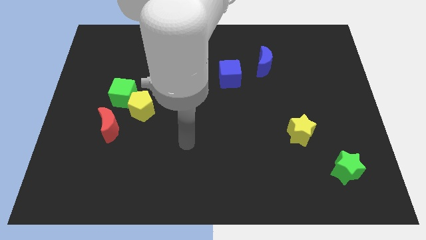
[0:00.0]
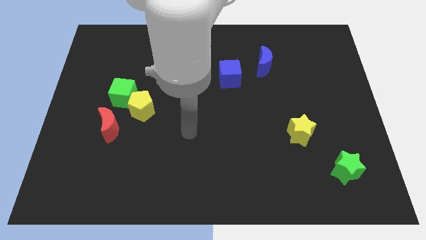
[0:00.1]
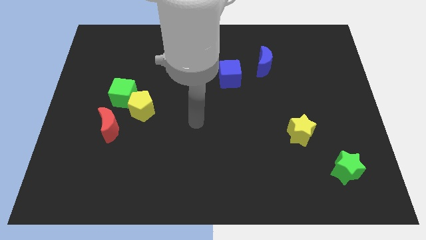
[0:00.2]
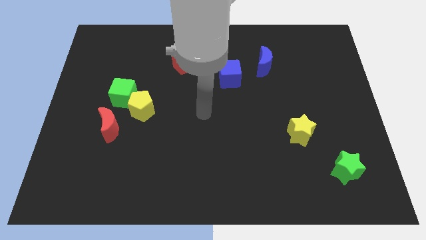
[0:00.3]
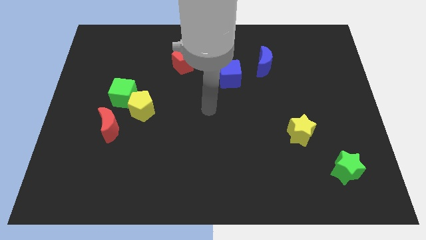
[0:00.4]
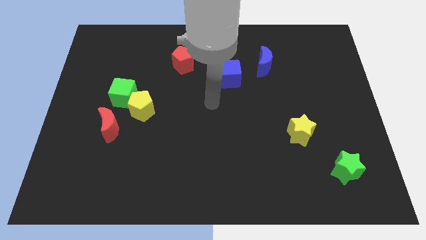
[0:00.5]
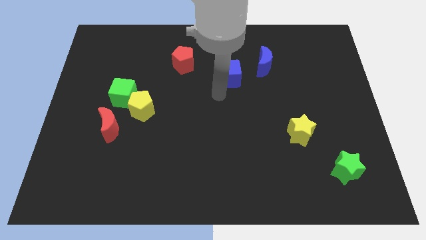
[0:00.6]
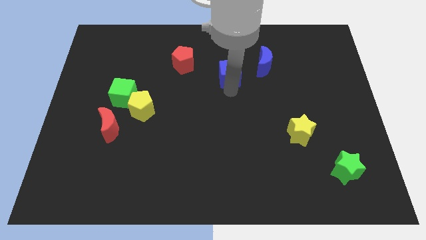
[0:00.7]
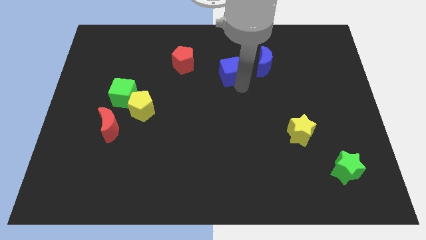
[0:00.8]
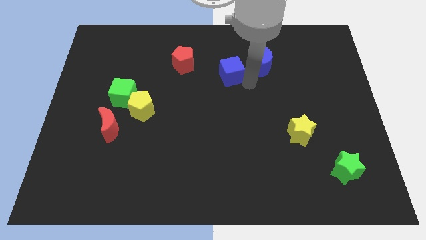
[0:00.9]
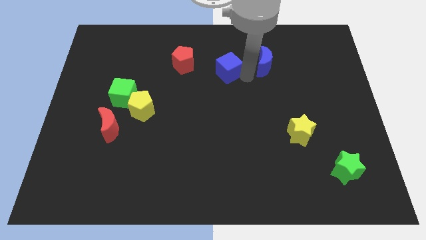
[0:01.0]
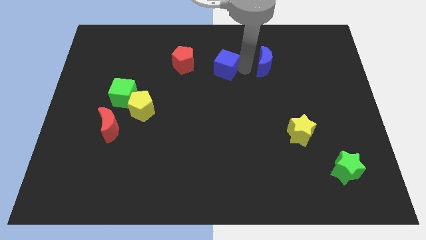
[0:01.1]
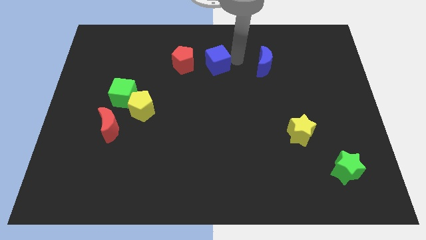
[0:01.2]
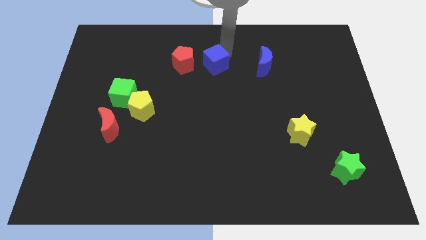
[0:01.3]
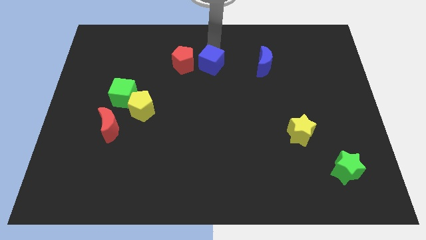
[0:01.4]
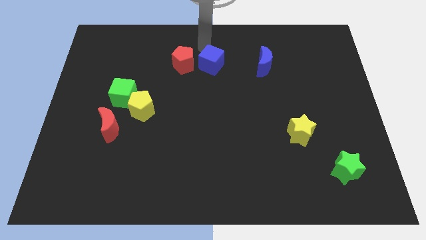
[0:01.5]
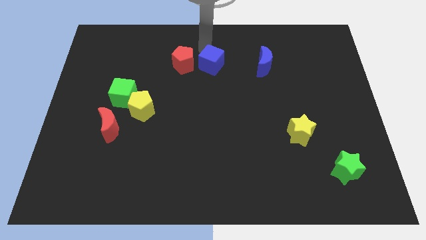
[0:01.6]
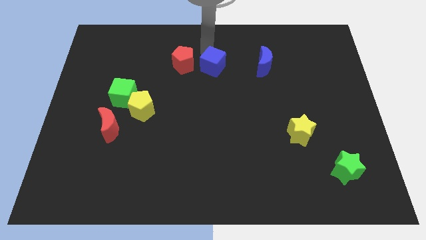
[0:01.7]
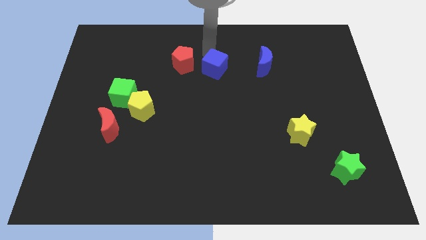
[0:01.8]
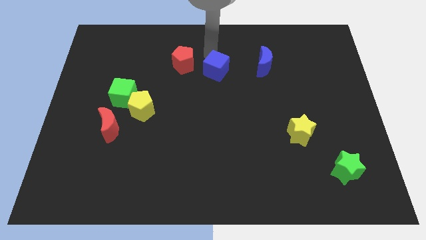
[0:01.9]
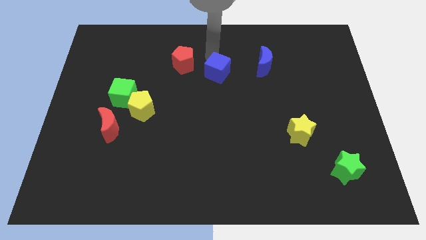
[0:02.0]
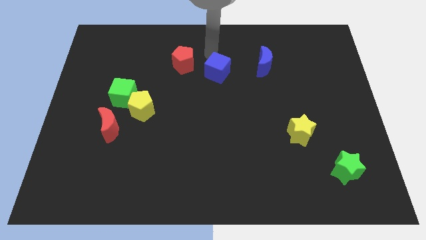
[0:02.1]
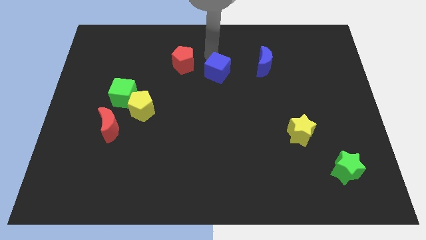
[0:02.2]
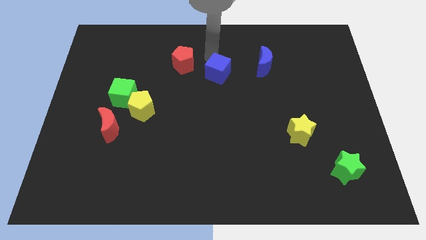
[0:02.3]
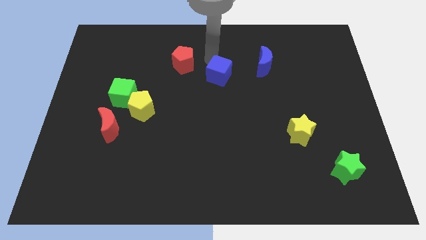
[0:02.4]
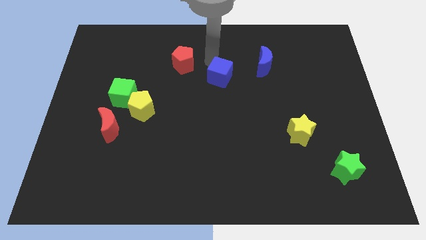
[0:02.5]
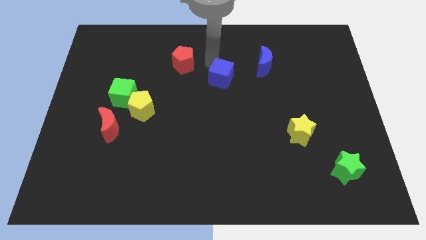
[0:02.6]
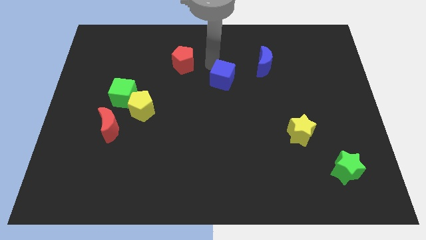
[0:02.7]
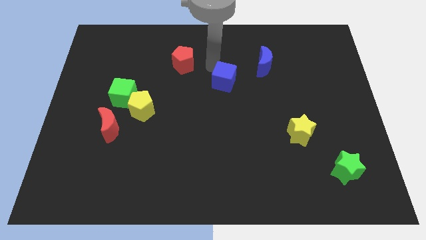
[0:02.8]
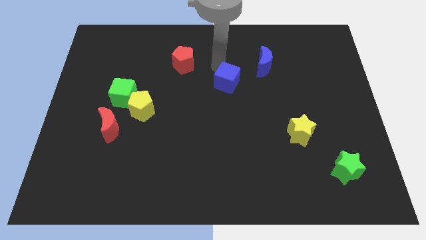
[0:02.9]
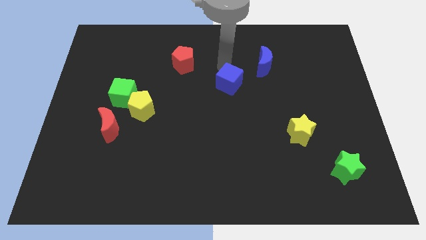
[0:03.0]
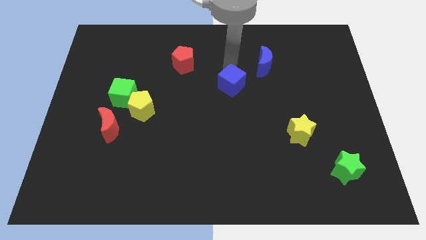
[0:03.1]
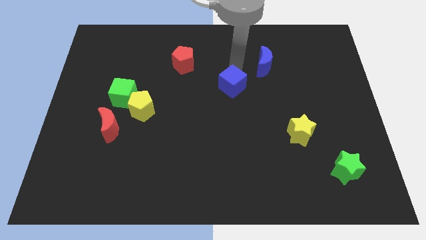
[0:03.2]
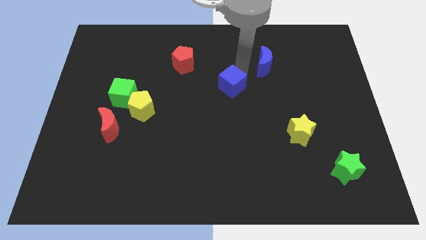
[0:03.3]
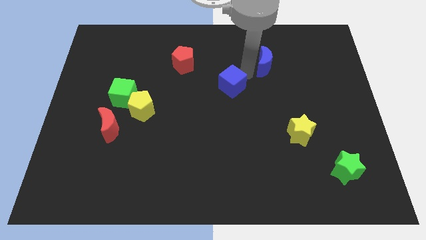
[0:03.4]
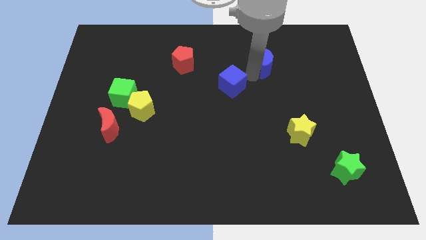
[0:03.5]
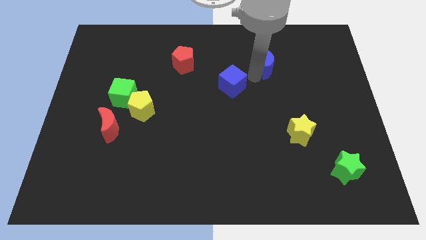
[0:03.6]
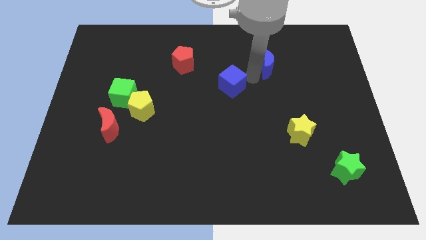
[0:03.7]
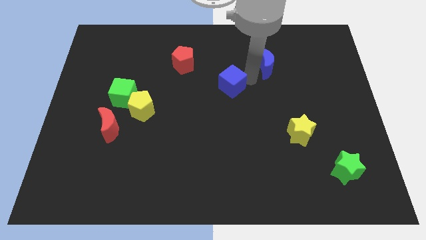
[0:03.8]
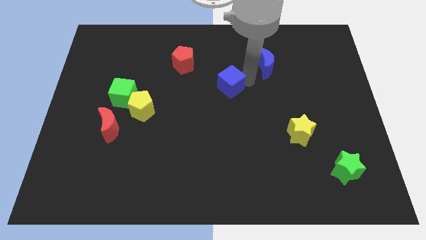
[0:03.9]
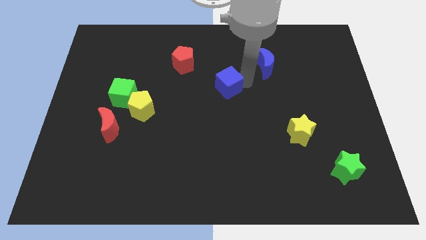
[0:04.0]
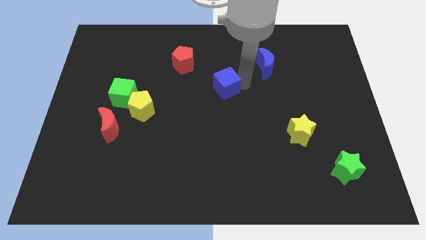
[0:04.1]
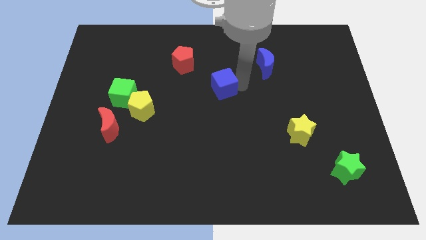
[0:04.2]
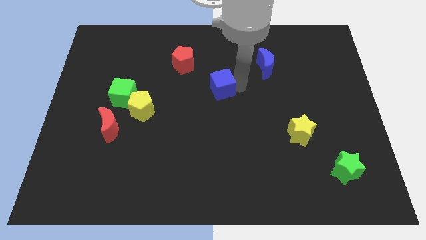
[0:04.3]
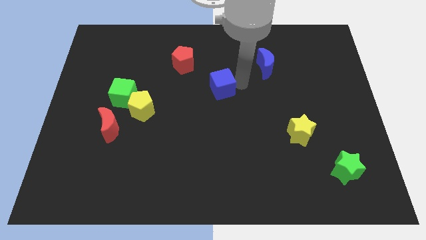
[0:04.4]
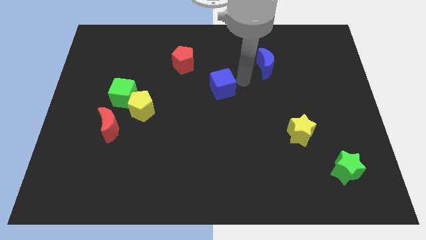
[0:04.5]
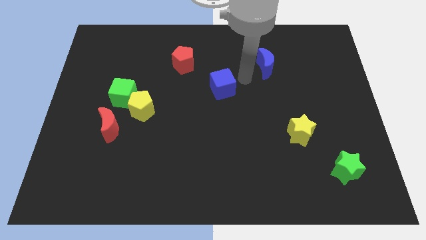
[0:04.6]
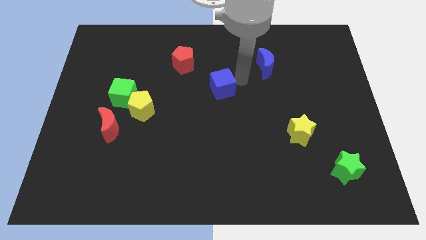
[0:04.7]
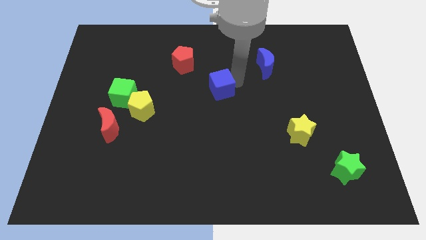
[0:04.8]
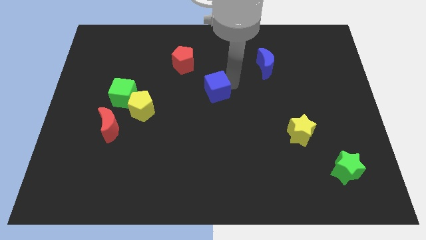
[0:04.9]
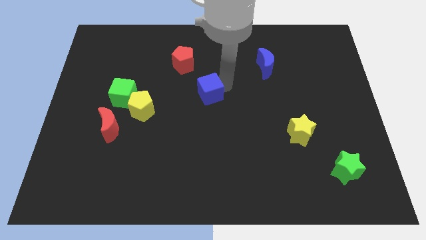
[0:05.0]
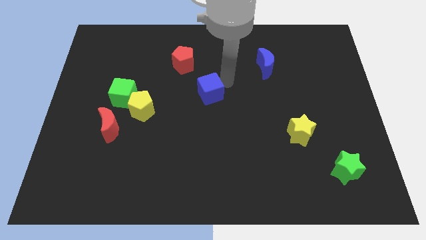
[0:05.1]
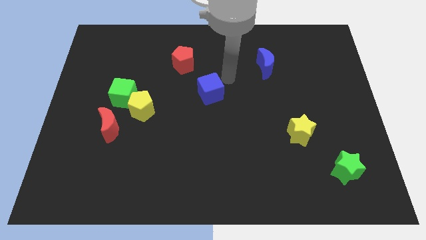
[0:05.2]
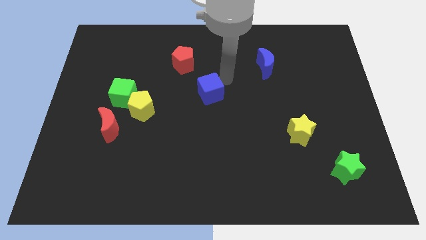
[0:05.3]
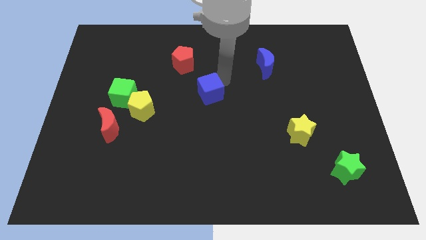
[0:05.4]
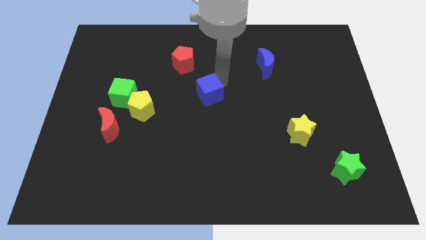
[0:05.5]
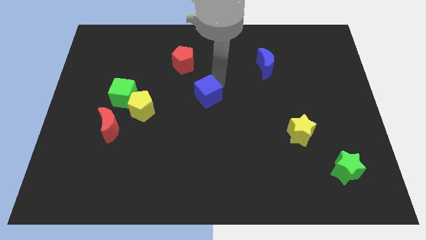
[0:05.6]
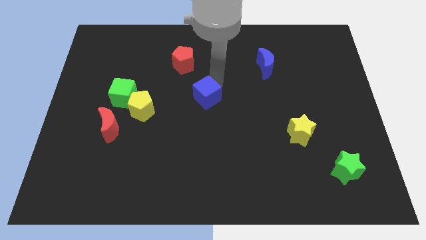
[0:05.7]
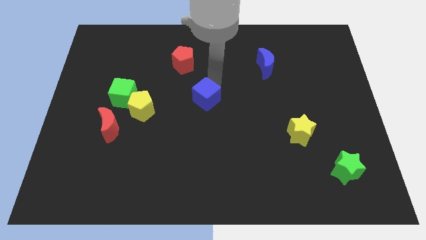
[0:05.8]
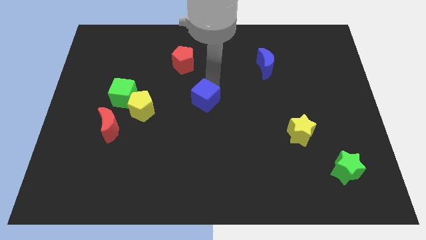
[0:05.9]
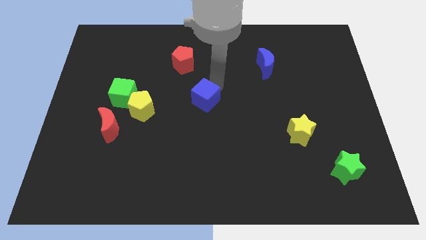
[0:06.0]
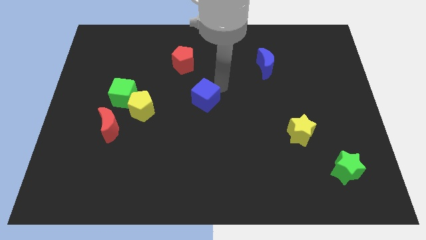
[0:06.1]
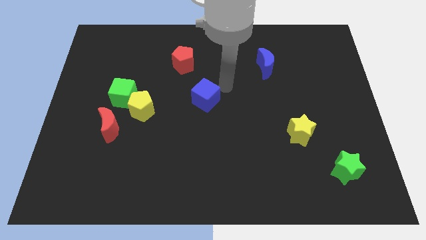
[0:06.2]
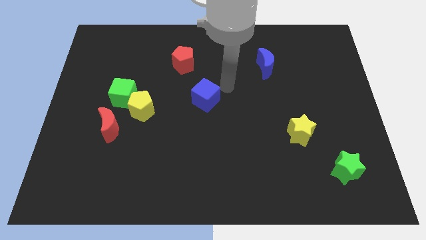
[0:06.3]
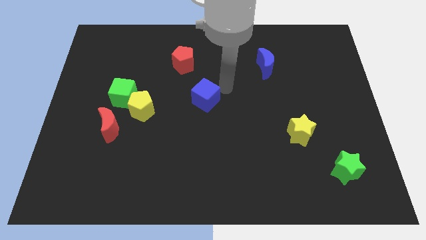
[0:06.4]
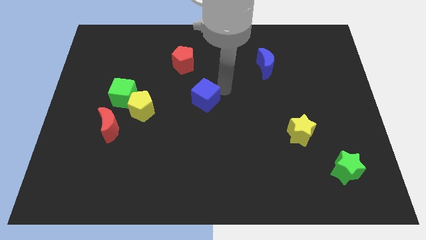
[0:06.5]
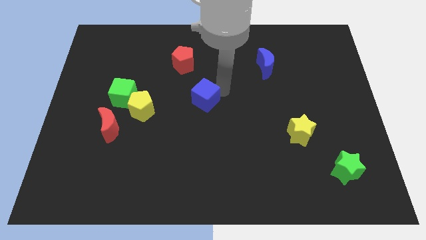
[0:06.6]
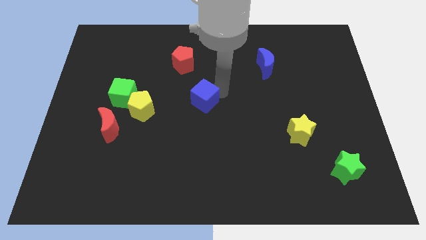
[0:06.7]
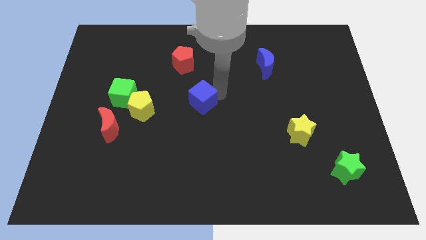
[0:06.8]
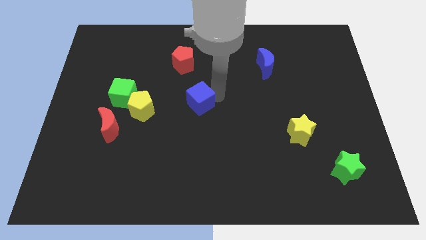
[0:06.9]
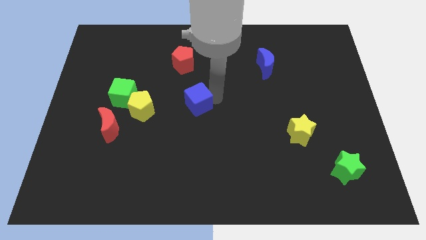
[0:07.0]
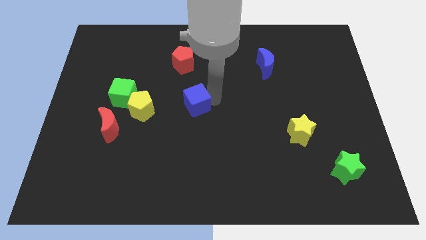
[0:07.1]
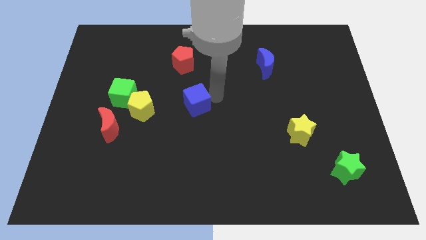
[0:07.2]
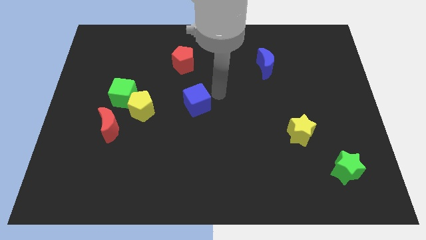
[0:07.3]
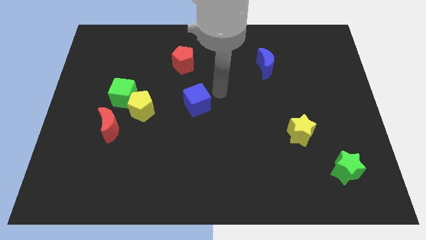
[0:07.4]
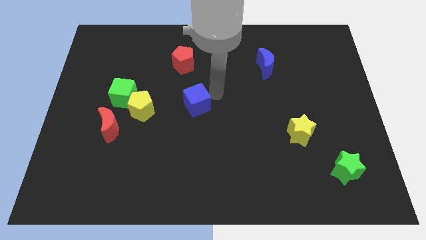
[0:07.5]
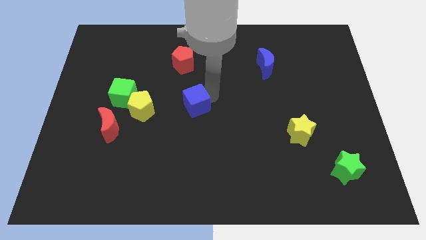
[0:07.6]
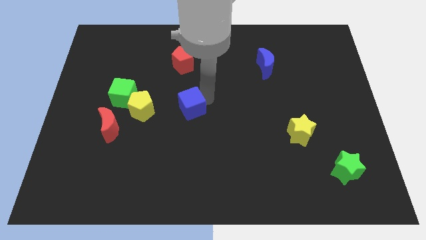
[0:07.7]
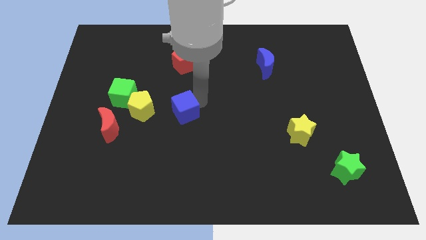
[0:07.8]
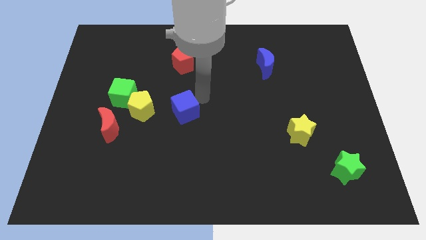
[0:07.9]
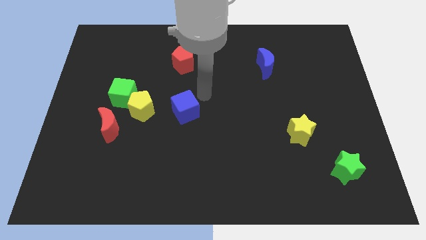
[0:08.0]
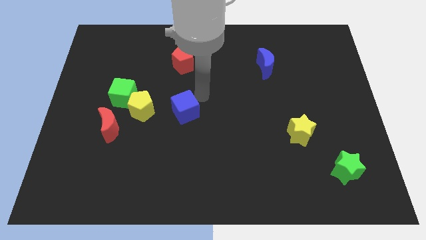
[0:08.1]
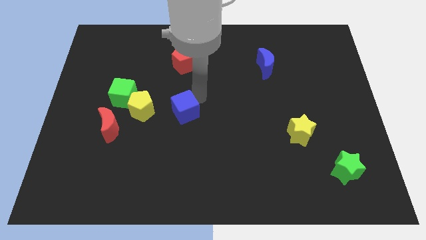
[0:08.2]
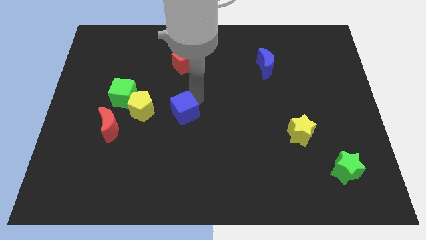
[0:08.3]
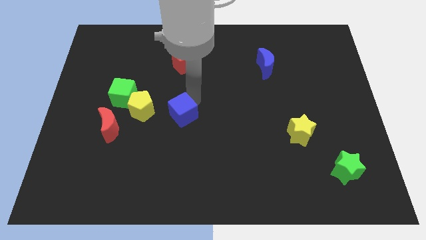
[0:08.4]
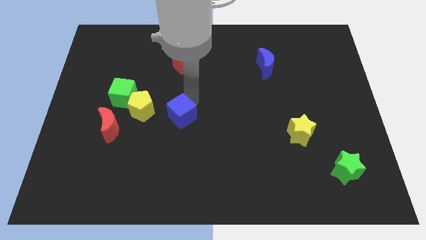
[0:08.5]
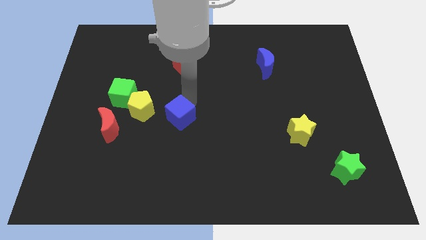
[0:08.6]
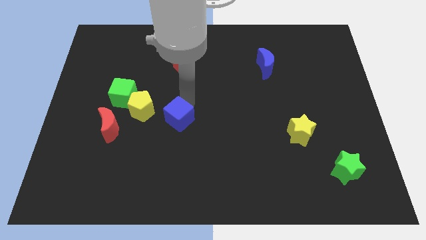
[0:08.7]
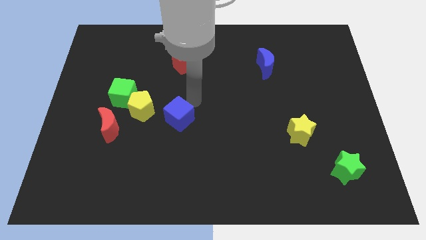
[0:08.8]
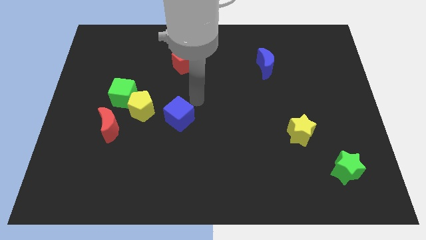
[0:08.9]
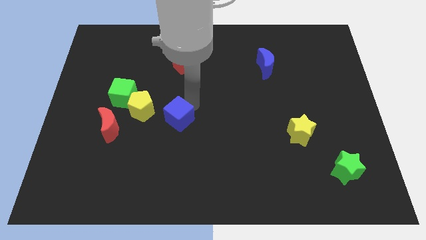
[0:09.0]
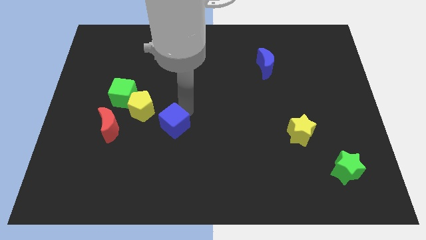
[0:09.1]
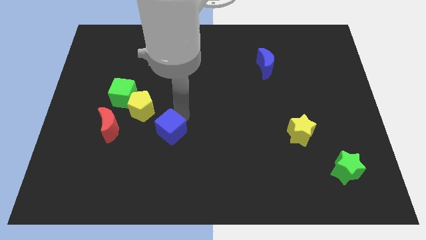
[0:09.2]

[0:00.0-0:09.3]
move the blue cube downwards and left
